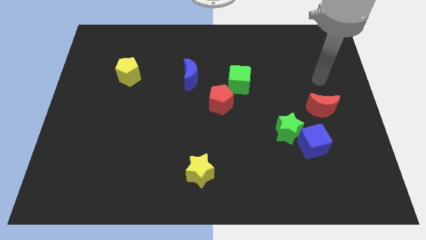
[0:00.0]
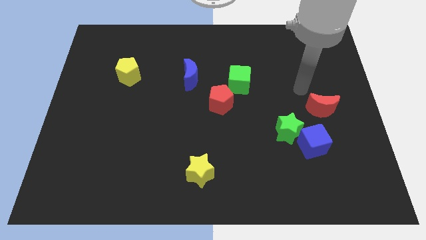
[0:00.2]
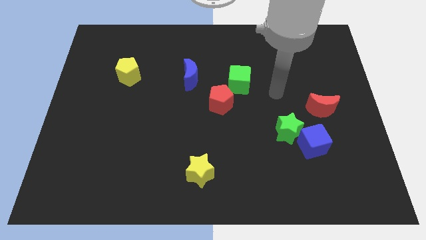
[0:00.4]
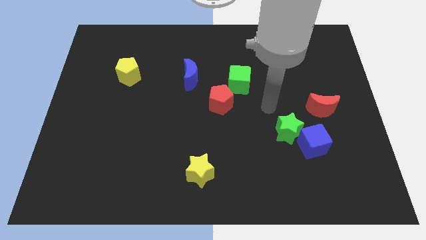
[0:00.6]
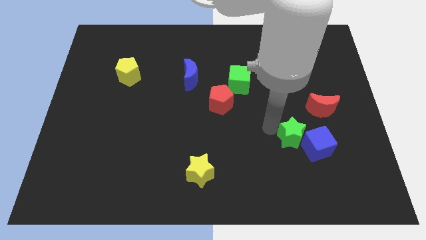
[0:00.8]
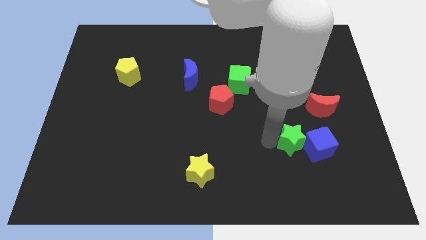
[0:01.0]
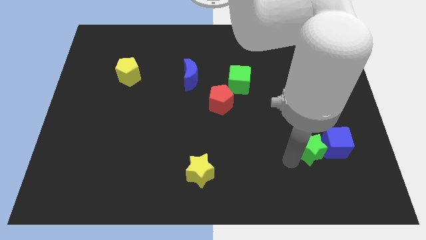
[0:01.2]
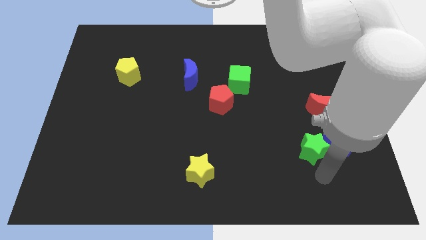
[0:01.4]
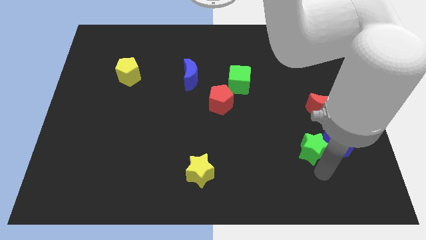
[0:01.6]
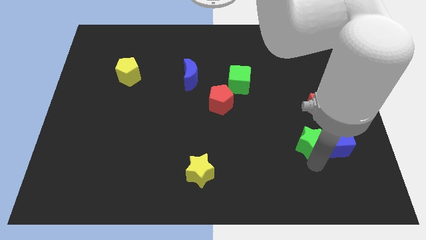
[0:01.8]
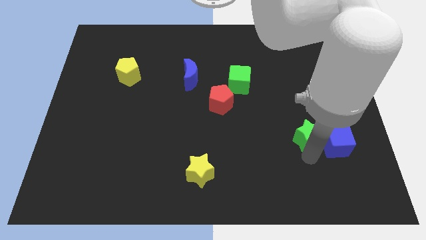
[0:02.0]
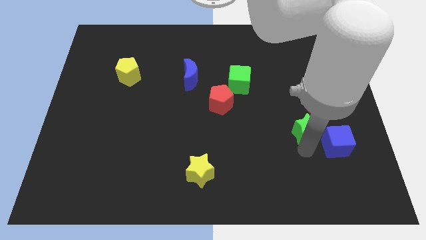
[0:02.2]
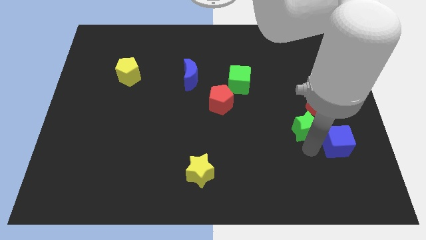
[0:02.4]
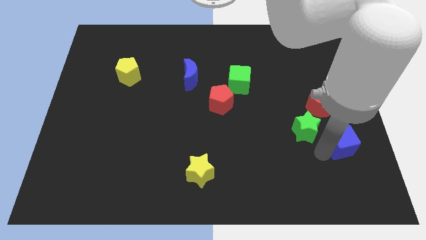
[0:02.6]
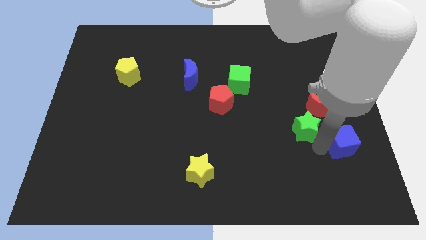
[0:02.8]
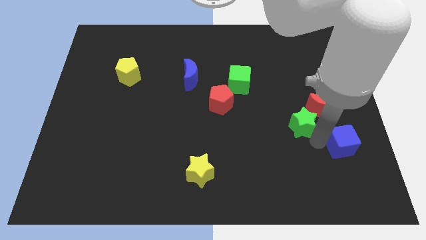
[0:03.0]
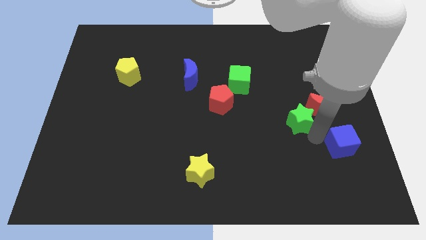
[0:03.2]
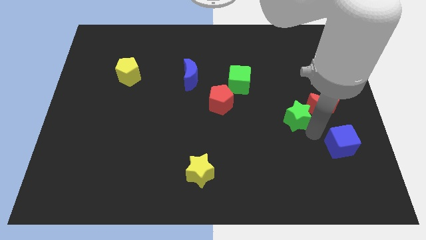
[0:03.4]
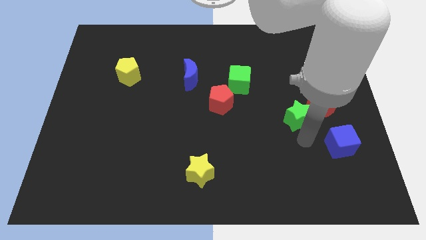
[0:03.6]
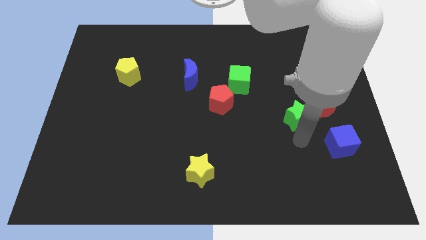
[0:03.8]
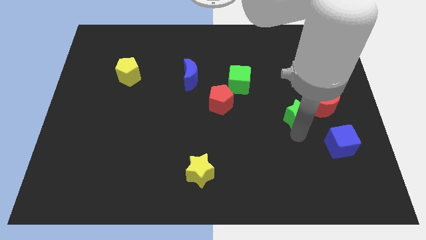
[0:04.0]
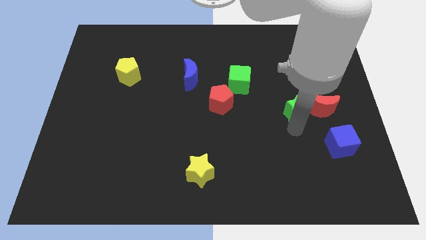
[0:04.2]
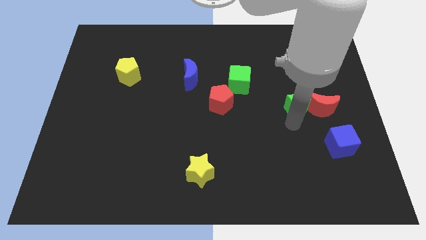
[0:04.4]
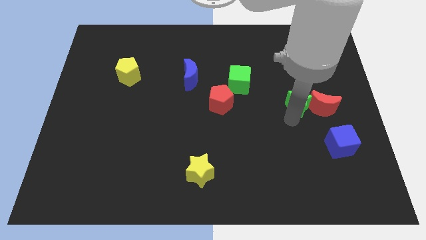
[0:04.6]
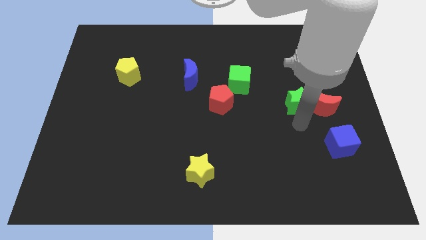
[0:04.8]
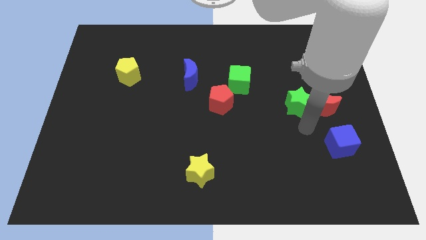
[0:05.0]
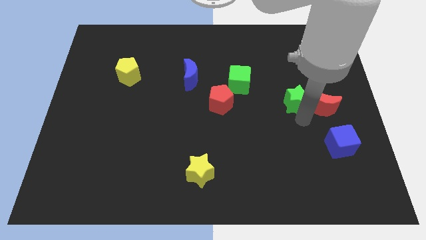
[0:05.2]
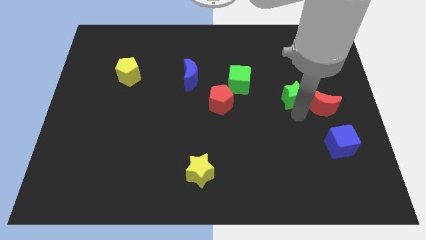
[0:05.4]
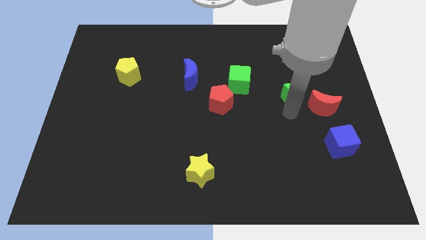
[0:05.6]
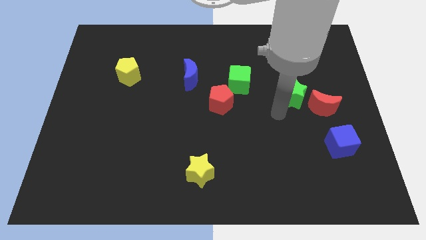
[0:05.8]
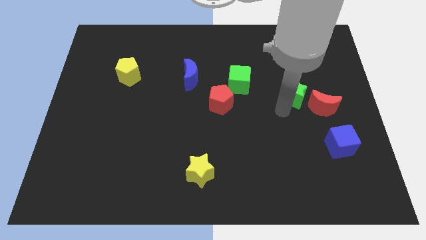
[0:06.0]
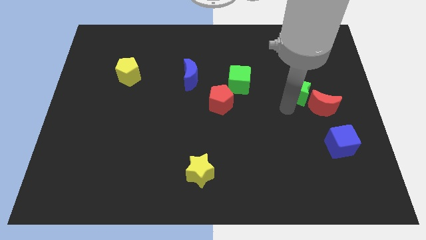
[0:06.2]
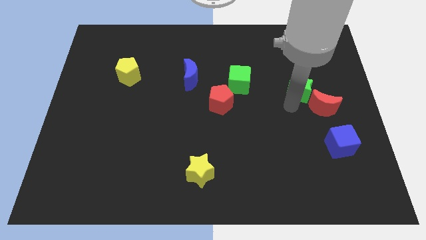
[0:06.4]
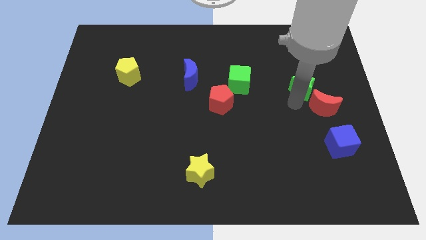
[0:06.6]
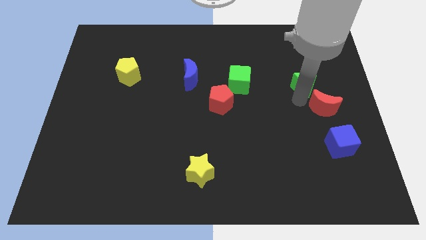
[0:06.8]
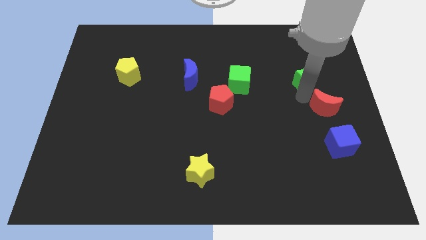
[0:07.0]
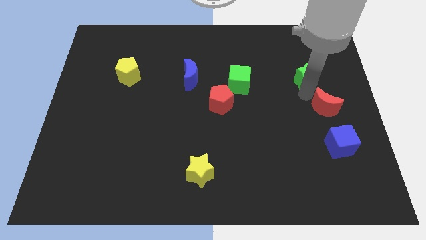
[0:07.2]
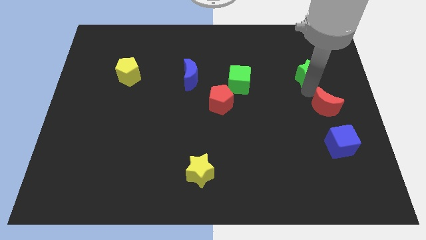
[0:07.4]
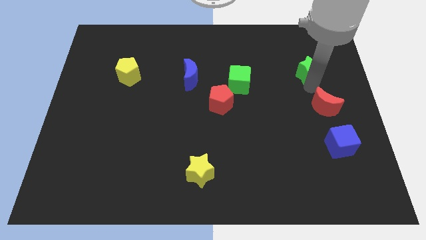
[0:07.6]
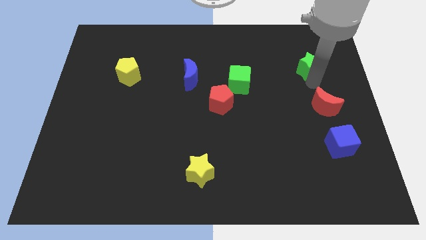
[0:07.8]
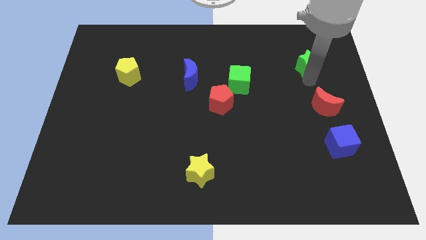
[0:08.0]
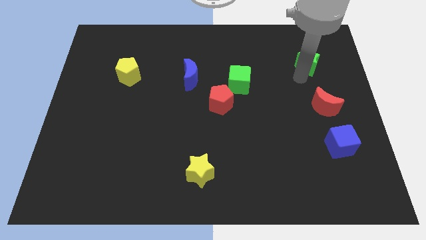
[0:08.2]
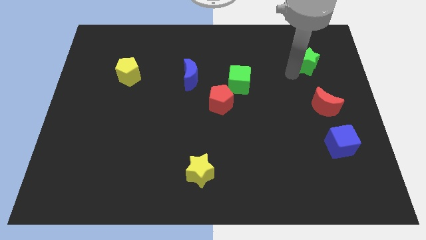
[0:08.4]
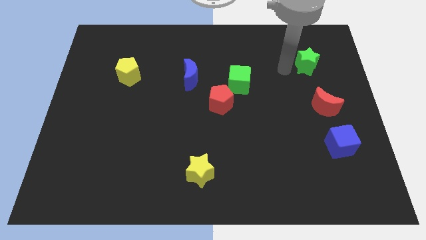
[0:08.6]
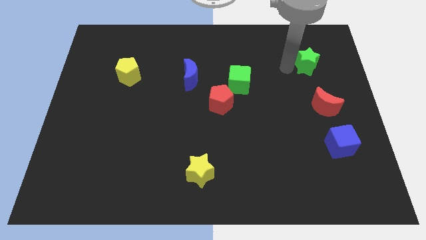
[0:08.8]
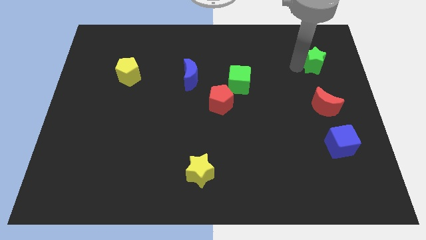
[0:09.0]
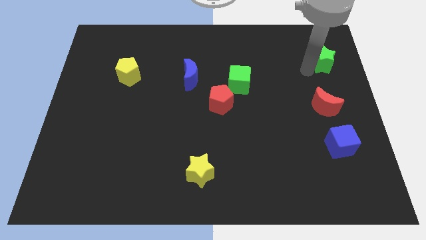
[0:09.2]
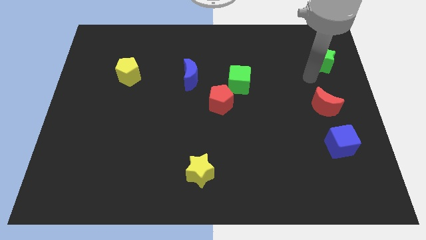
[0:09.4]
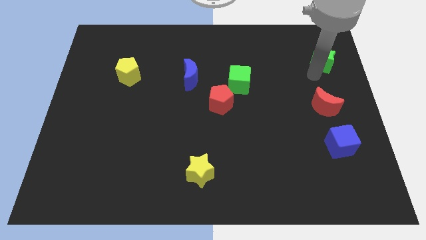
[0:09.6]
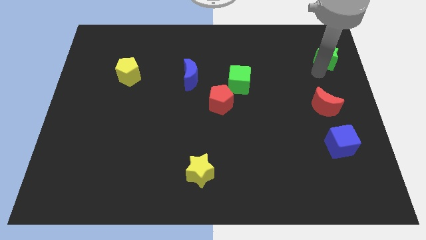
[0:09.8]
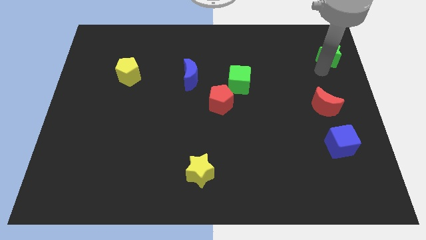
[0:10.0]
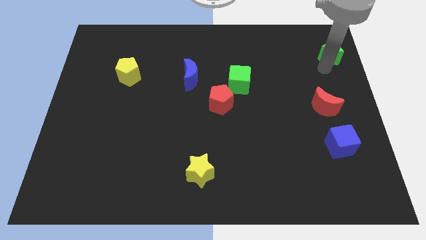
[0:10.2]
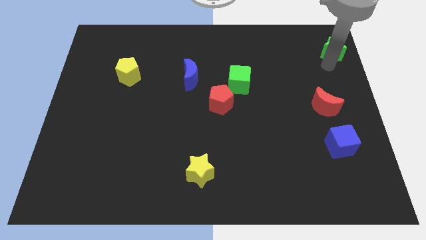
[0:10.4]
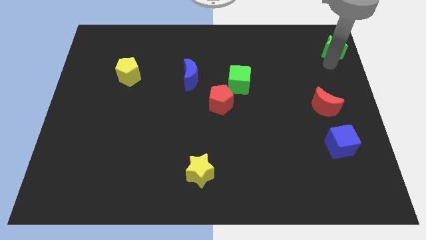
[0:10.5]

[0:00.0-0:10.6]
slide the green star to the upper right corner

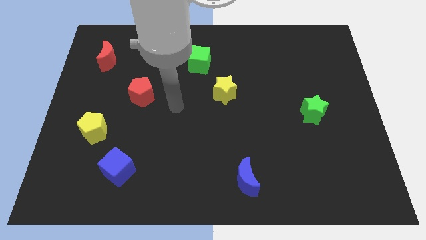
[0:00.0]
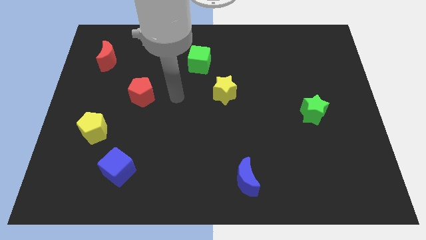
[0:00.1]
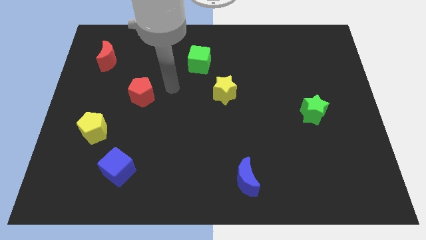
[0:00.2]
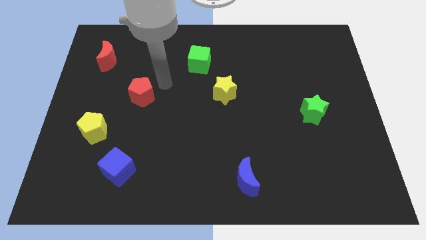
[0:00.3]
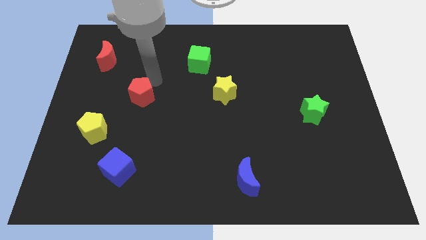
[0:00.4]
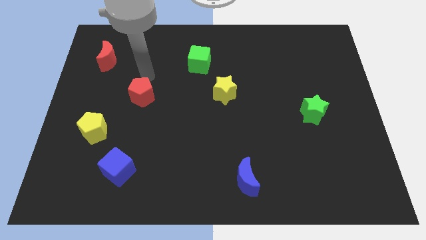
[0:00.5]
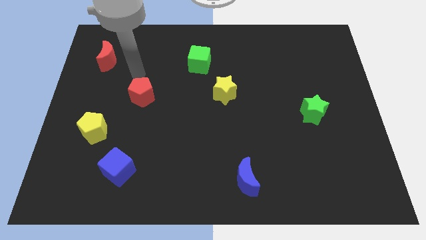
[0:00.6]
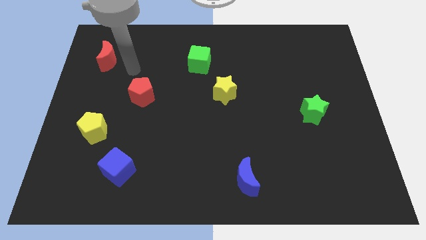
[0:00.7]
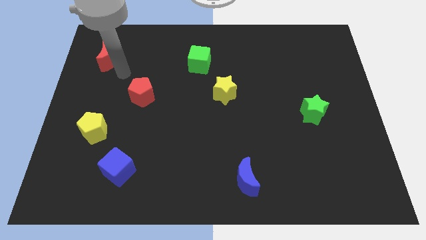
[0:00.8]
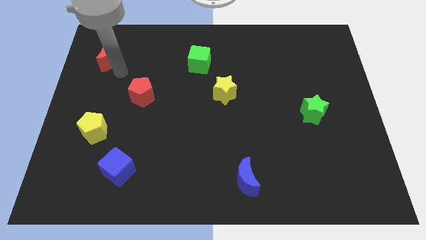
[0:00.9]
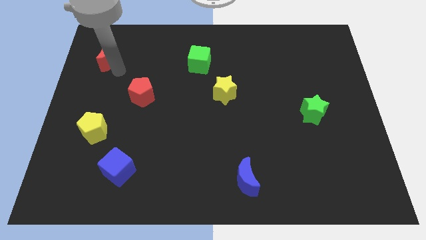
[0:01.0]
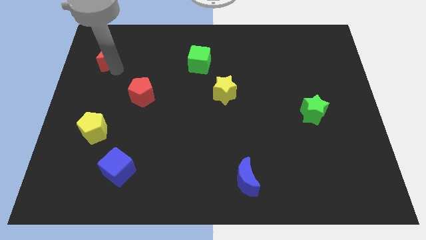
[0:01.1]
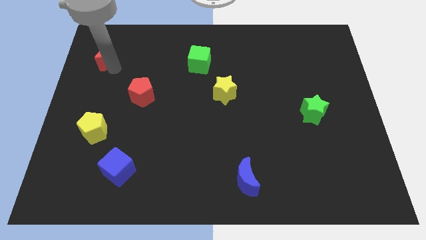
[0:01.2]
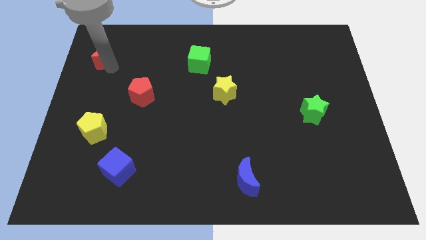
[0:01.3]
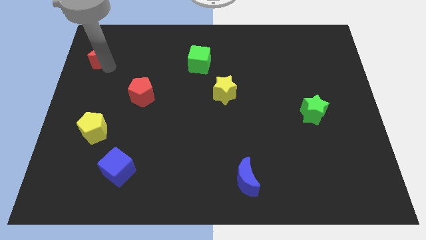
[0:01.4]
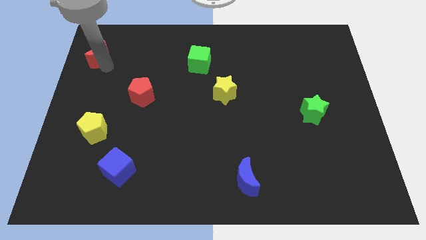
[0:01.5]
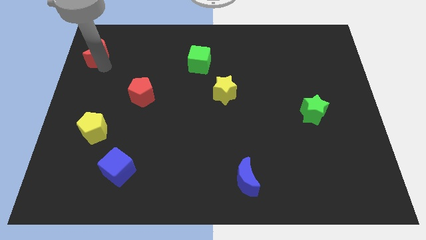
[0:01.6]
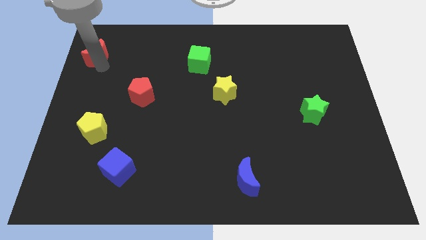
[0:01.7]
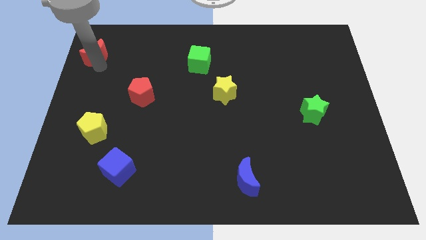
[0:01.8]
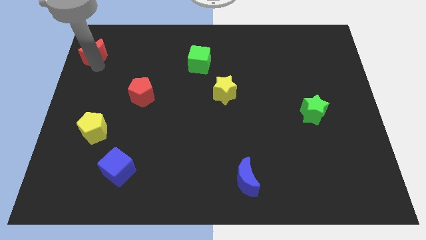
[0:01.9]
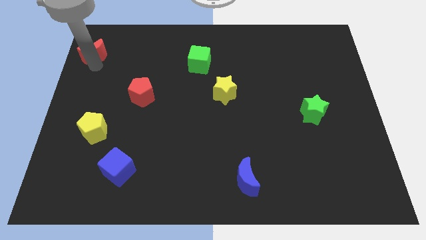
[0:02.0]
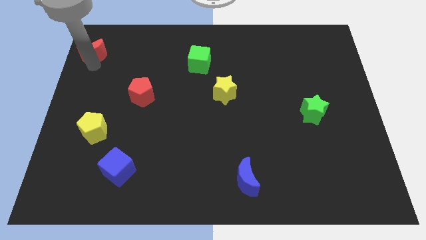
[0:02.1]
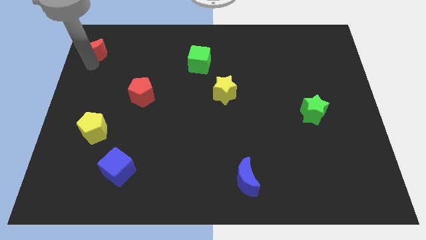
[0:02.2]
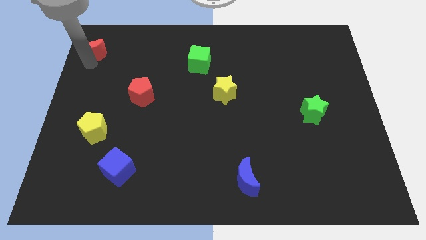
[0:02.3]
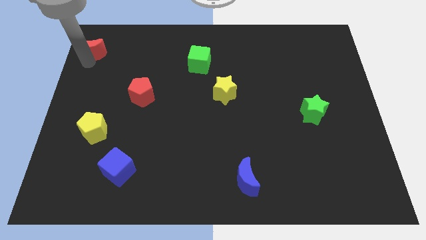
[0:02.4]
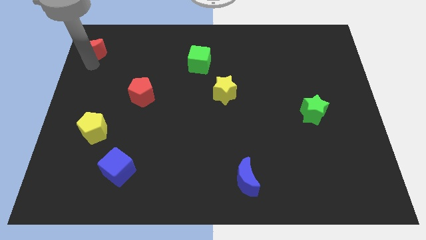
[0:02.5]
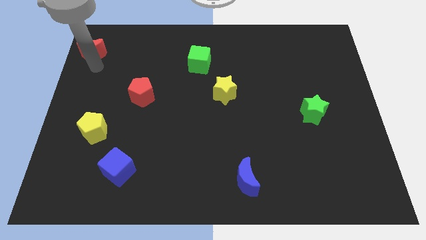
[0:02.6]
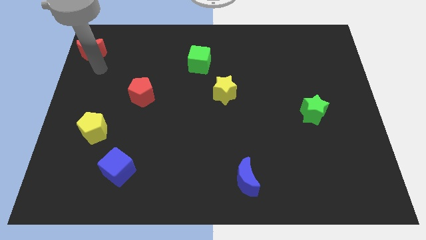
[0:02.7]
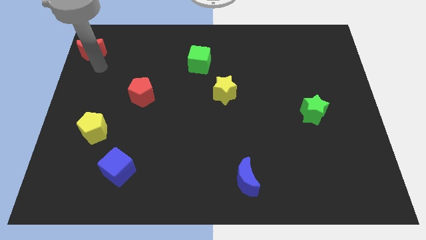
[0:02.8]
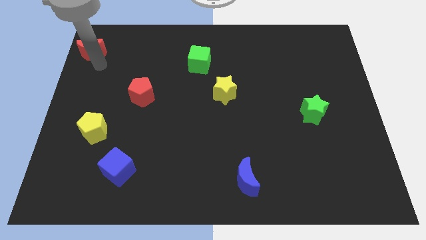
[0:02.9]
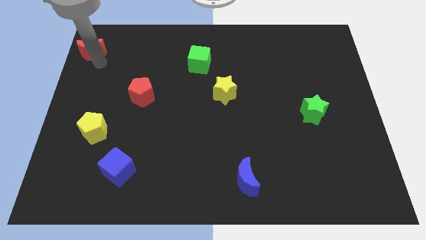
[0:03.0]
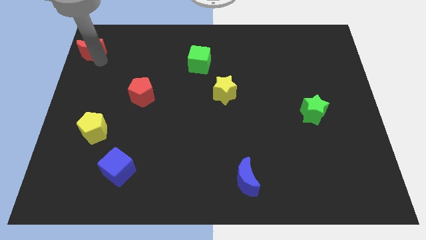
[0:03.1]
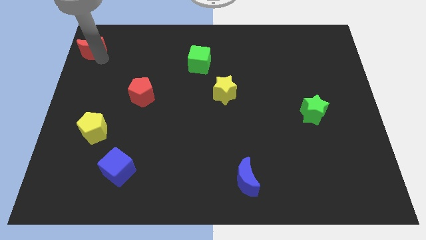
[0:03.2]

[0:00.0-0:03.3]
put the red moon to the top left corner
